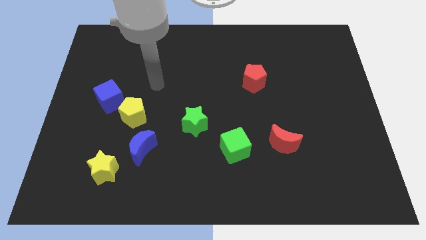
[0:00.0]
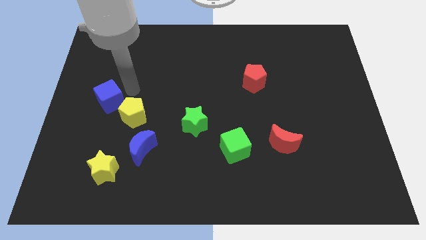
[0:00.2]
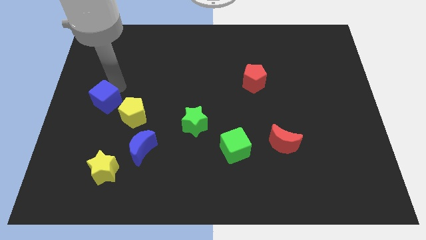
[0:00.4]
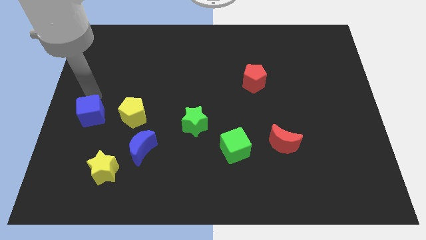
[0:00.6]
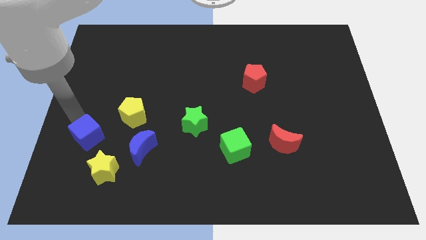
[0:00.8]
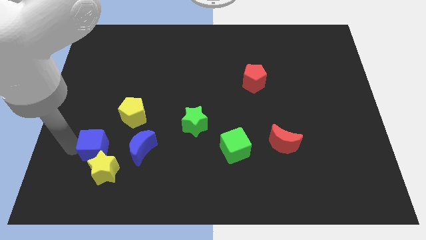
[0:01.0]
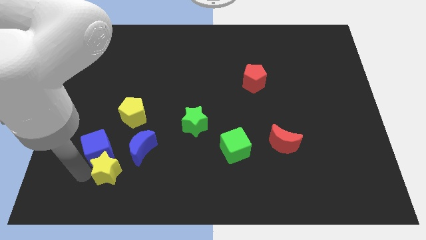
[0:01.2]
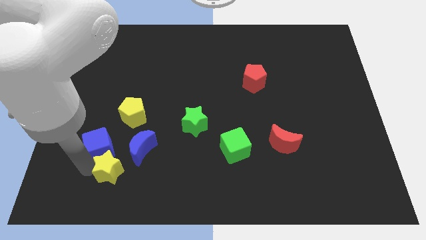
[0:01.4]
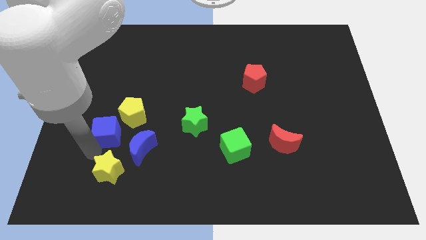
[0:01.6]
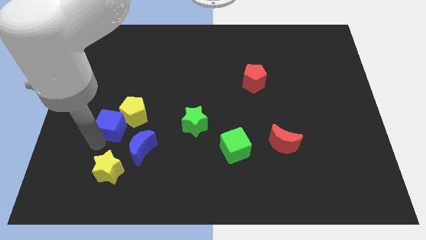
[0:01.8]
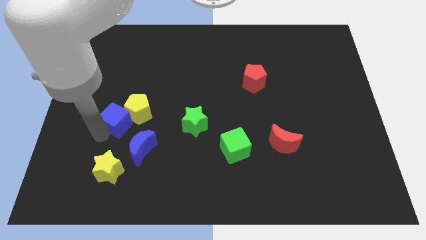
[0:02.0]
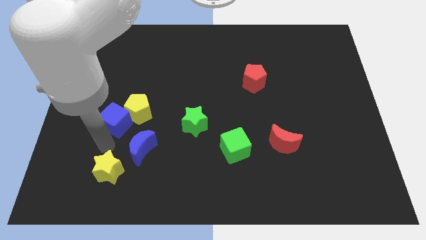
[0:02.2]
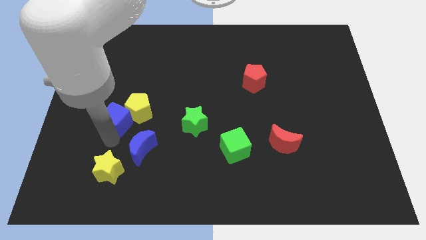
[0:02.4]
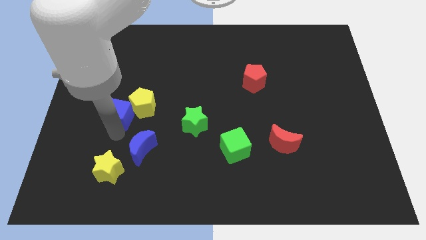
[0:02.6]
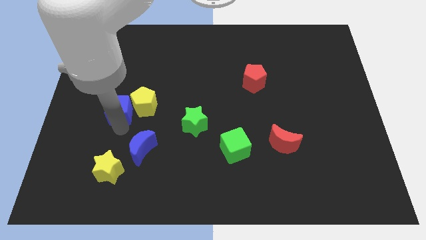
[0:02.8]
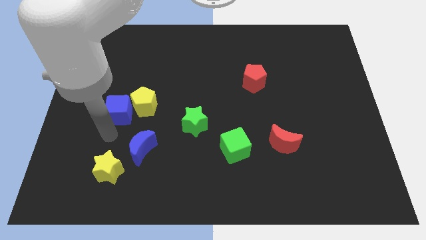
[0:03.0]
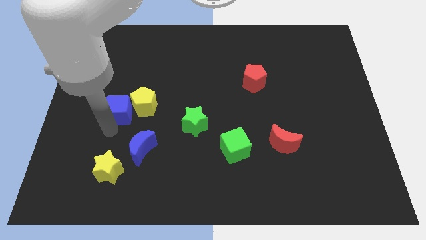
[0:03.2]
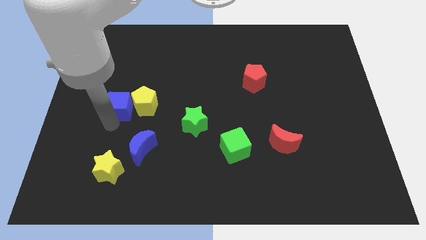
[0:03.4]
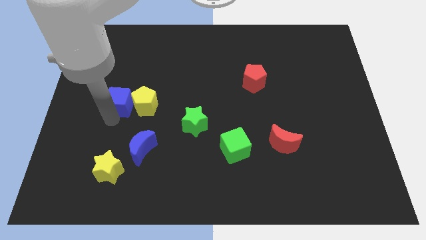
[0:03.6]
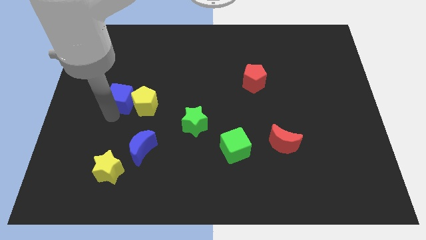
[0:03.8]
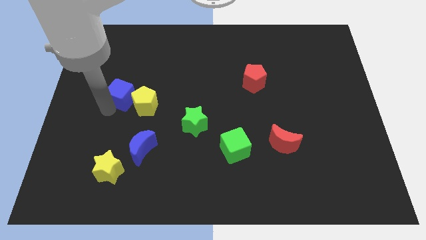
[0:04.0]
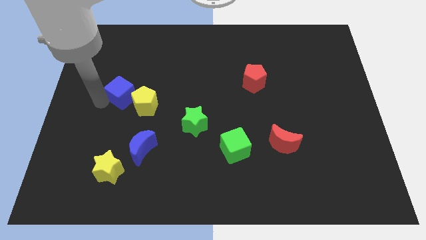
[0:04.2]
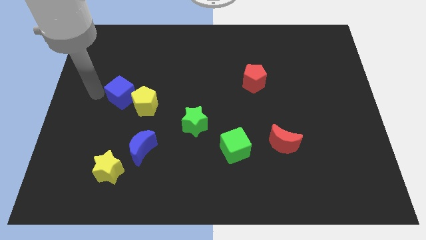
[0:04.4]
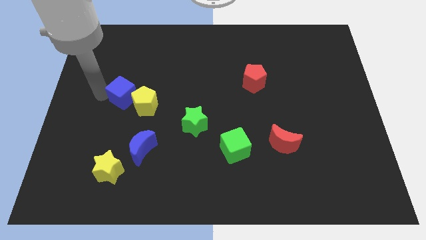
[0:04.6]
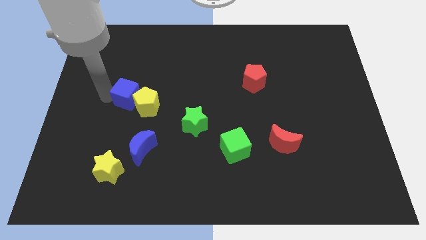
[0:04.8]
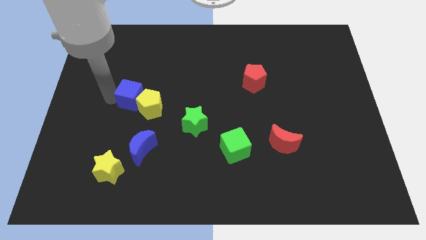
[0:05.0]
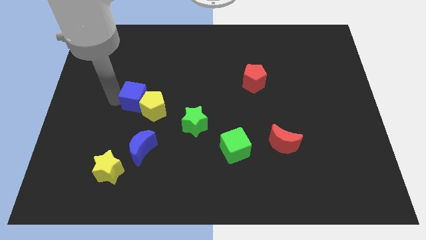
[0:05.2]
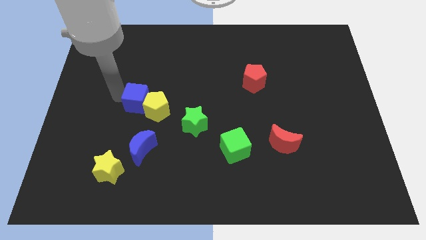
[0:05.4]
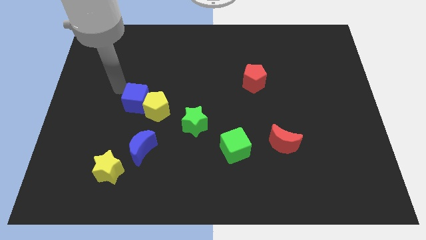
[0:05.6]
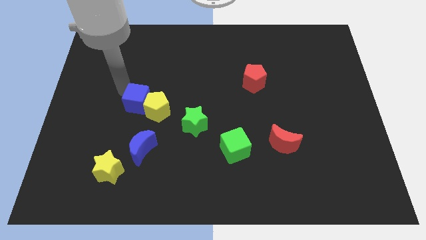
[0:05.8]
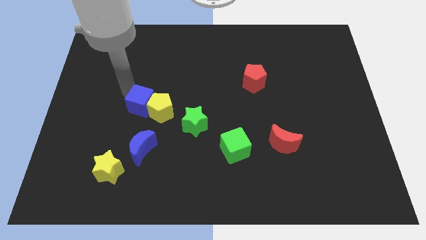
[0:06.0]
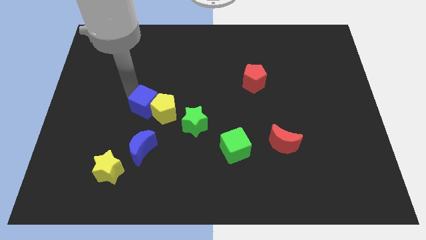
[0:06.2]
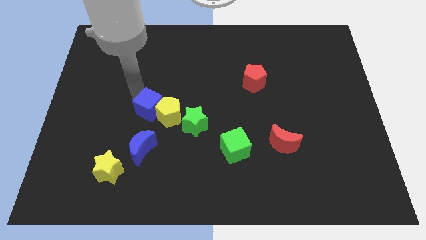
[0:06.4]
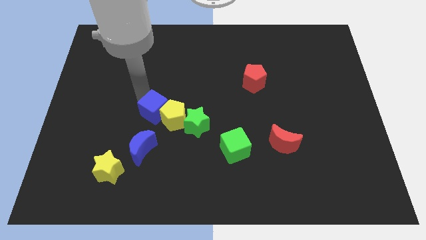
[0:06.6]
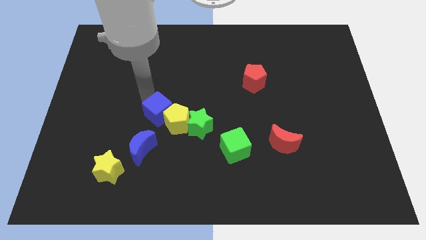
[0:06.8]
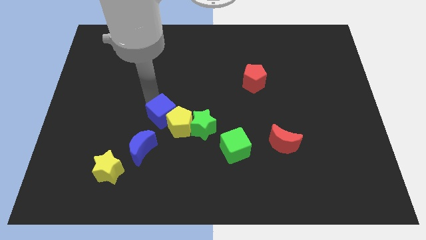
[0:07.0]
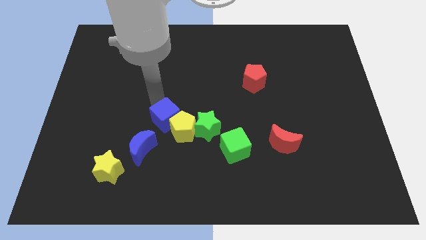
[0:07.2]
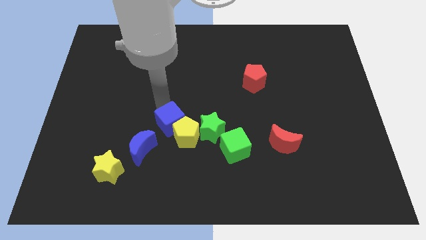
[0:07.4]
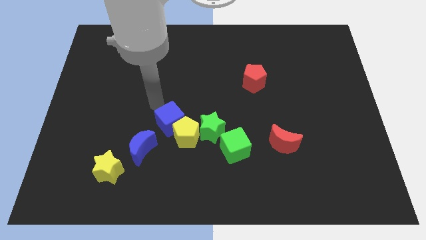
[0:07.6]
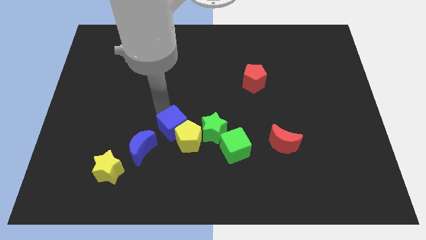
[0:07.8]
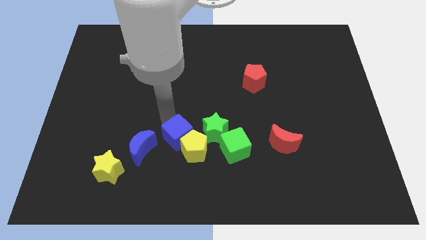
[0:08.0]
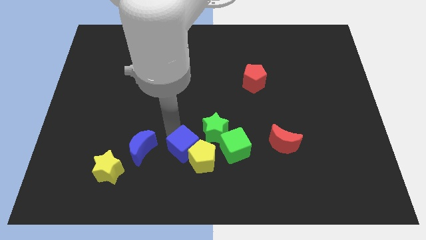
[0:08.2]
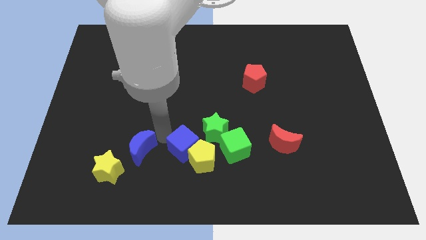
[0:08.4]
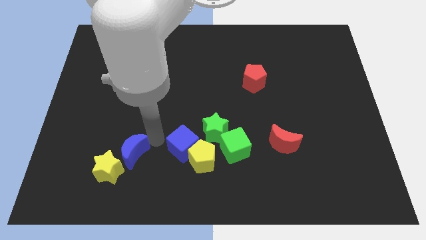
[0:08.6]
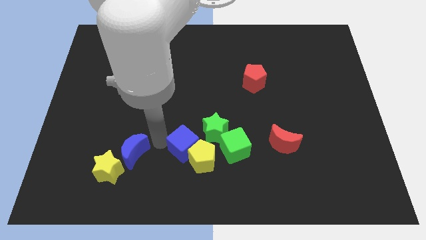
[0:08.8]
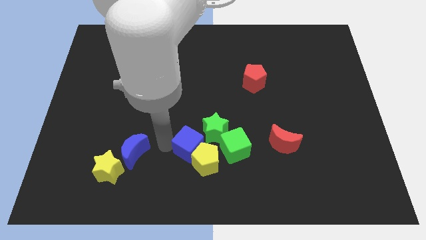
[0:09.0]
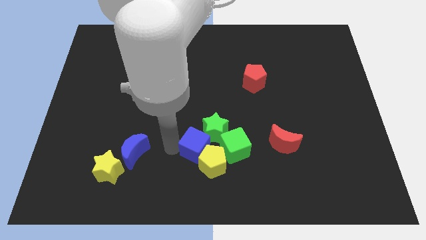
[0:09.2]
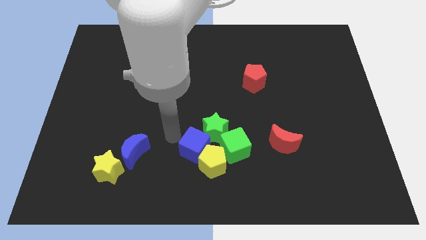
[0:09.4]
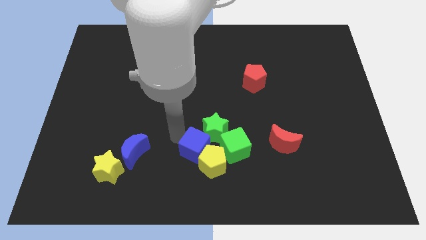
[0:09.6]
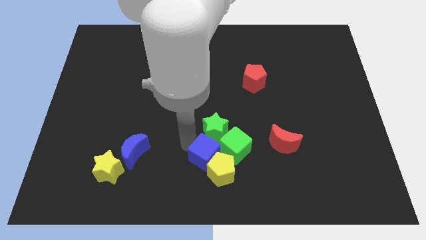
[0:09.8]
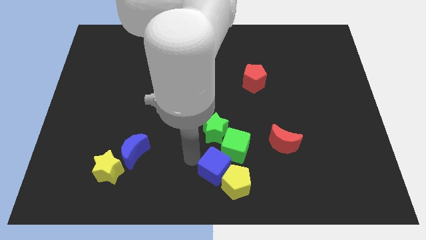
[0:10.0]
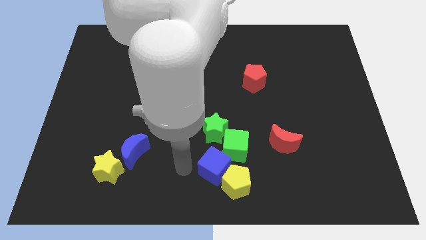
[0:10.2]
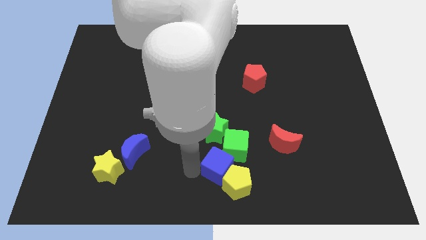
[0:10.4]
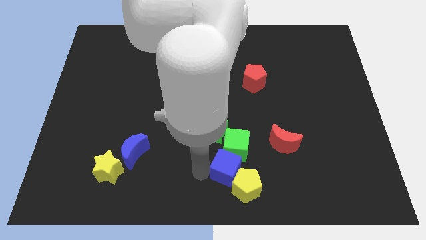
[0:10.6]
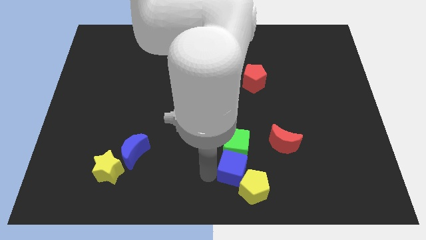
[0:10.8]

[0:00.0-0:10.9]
slide the blue cube diagonally down and to the right of the green cube

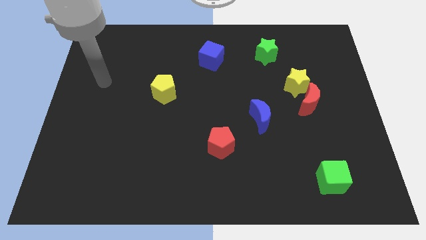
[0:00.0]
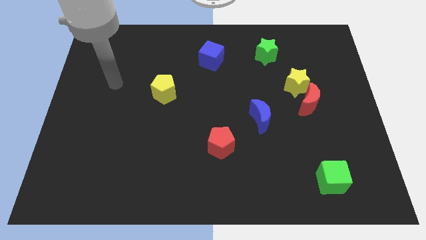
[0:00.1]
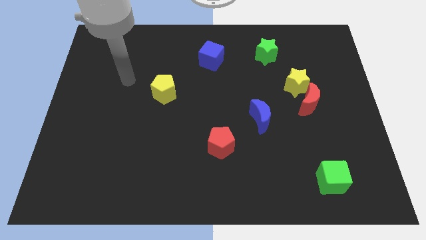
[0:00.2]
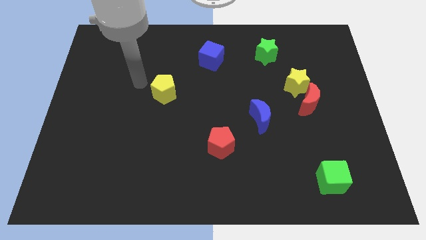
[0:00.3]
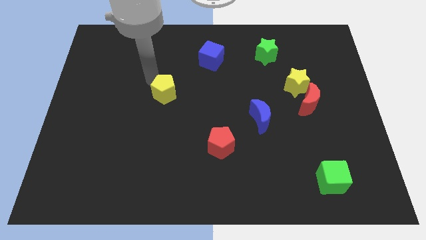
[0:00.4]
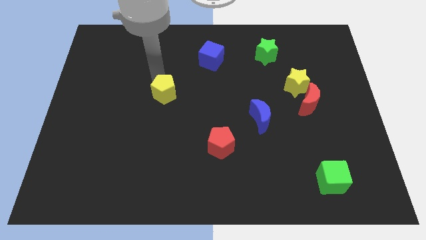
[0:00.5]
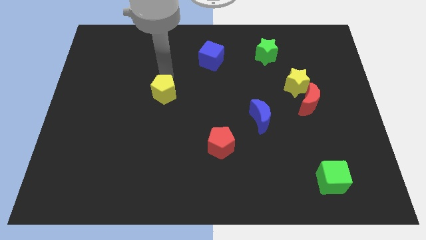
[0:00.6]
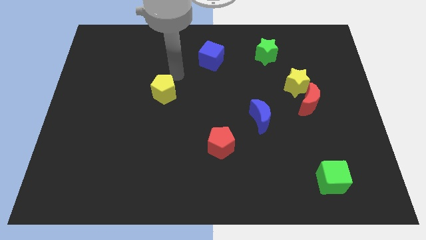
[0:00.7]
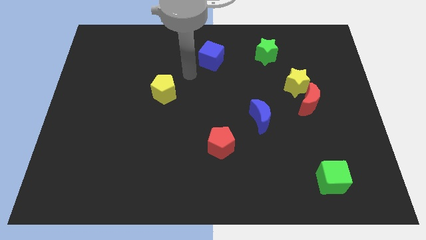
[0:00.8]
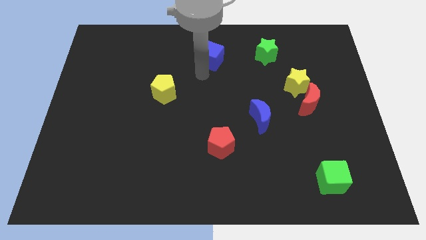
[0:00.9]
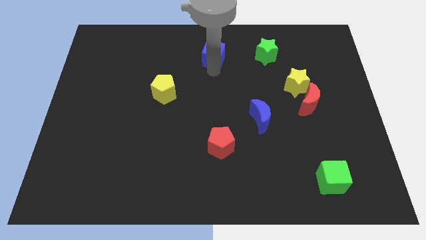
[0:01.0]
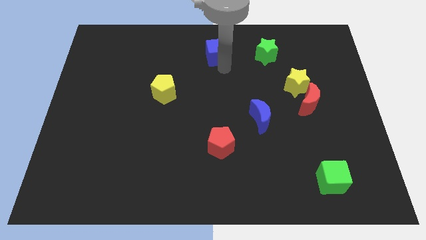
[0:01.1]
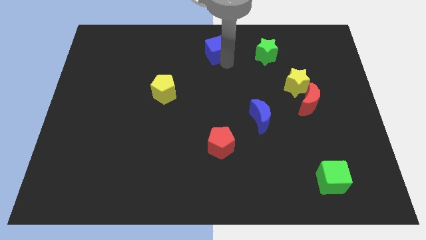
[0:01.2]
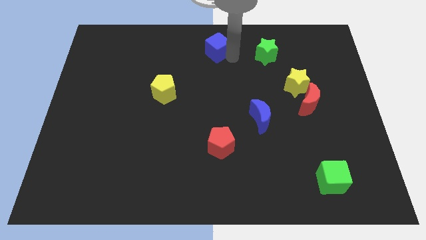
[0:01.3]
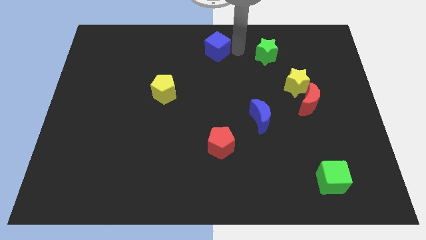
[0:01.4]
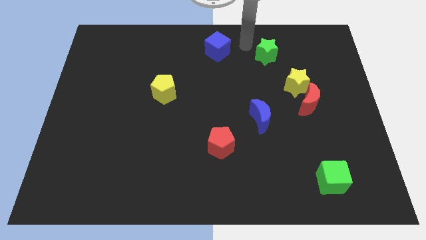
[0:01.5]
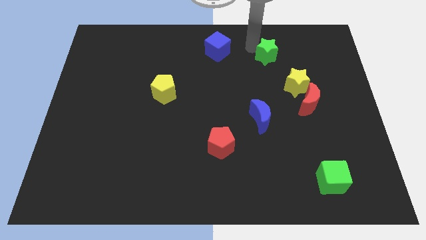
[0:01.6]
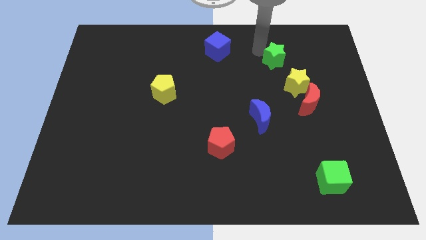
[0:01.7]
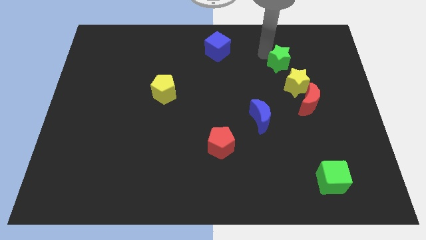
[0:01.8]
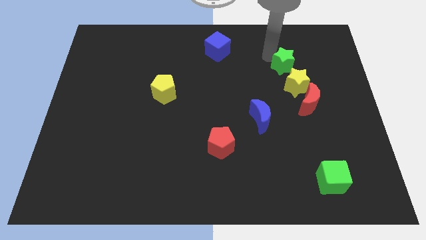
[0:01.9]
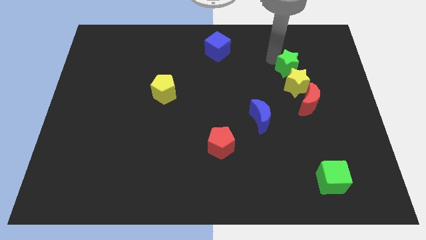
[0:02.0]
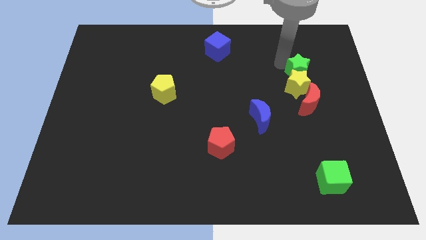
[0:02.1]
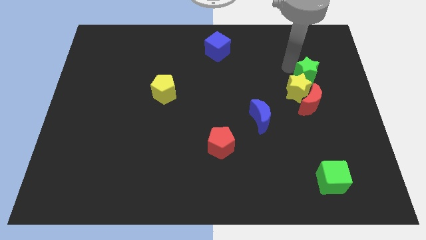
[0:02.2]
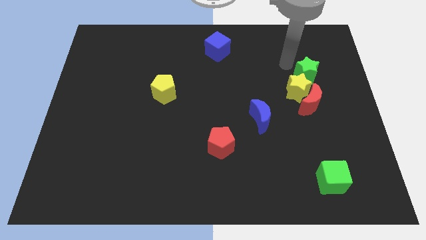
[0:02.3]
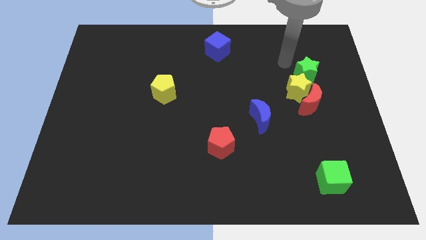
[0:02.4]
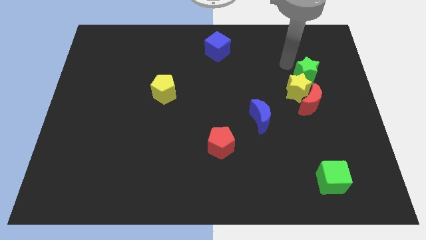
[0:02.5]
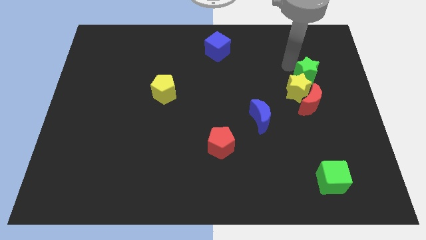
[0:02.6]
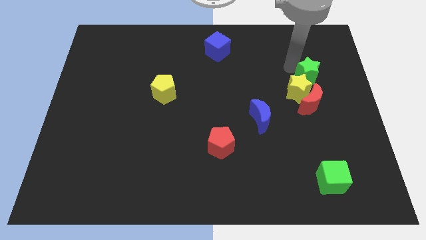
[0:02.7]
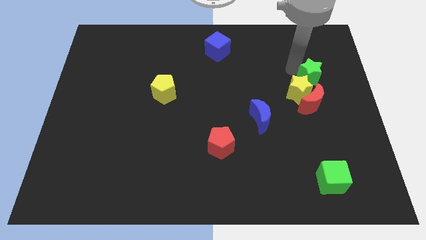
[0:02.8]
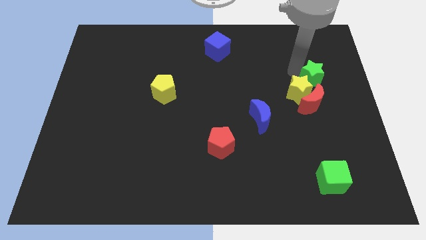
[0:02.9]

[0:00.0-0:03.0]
push the green star to the top right of the red moon
